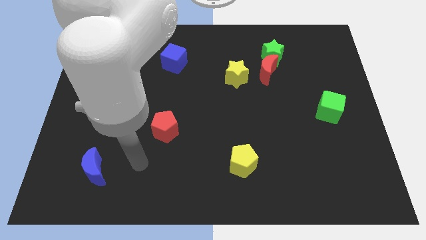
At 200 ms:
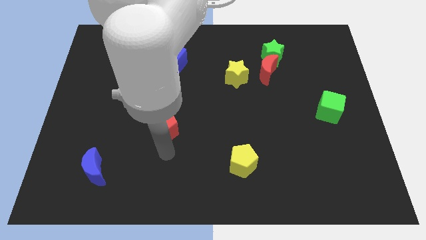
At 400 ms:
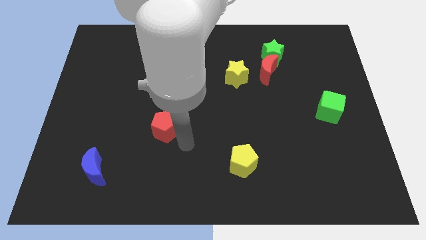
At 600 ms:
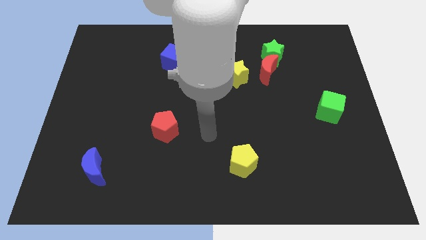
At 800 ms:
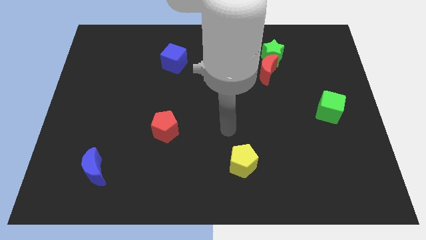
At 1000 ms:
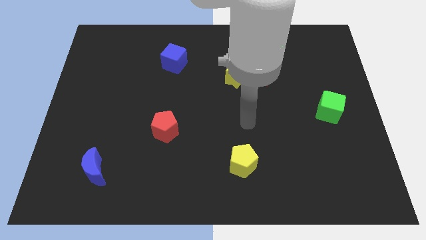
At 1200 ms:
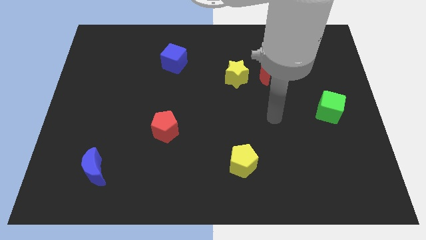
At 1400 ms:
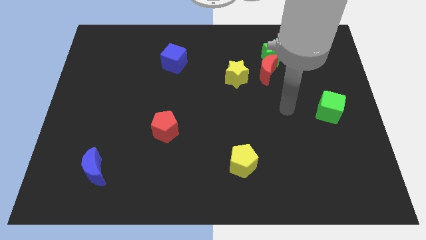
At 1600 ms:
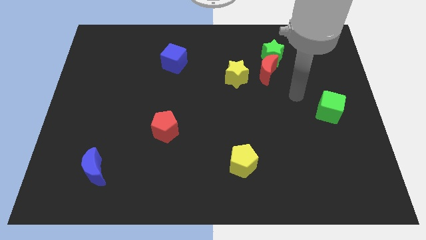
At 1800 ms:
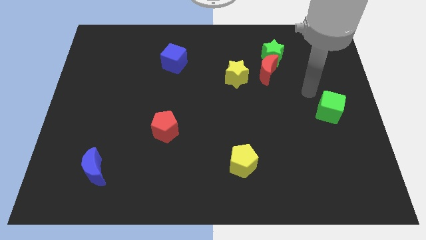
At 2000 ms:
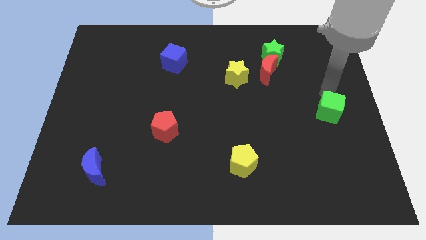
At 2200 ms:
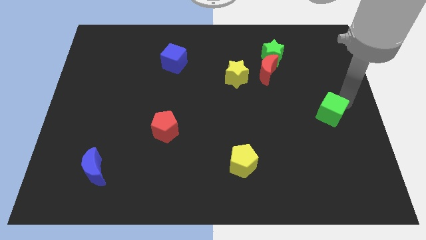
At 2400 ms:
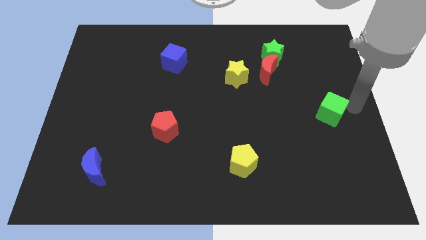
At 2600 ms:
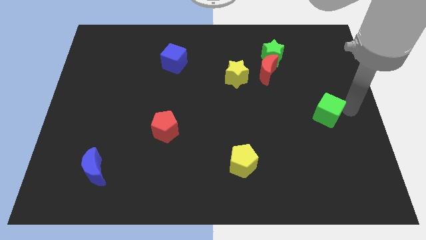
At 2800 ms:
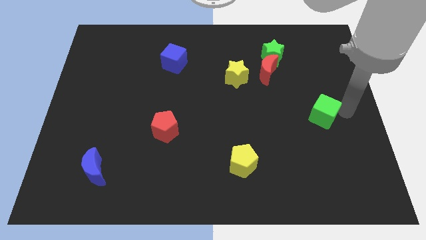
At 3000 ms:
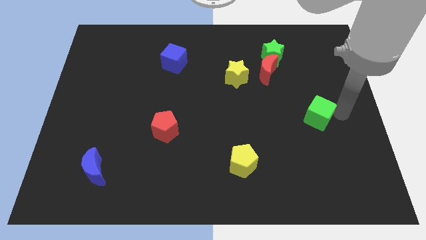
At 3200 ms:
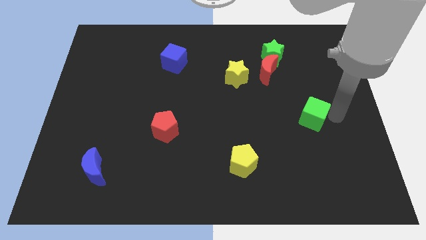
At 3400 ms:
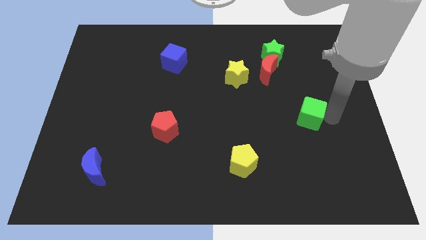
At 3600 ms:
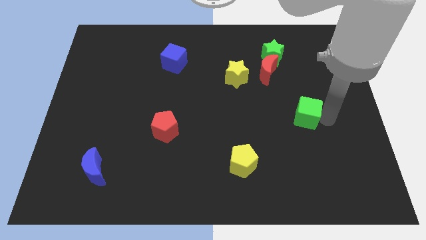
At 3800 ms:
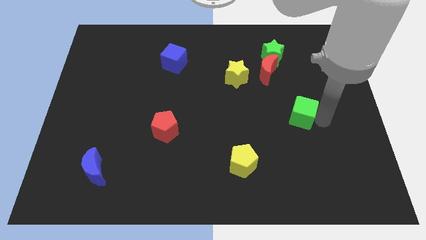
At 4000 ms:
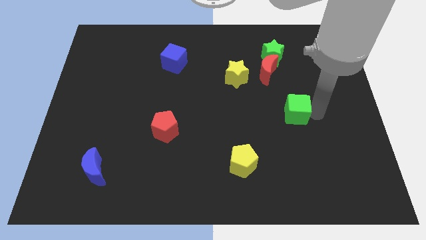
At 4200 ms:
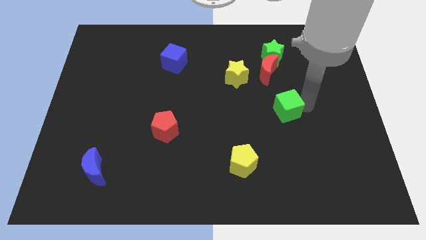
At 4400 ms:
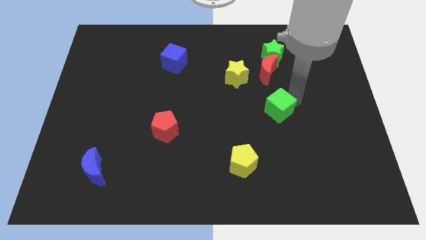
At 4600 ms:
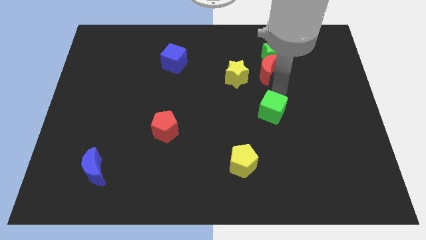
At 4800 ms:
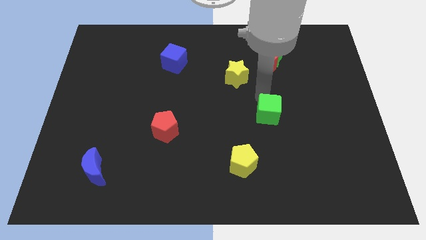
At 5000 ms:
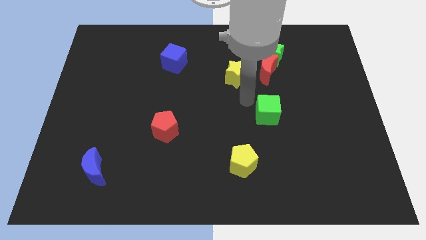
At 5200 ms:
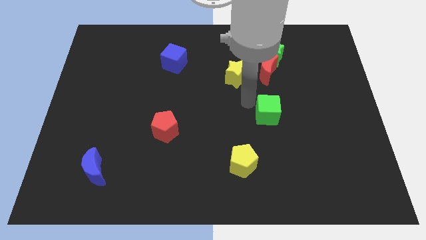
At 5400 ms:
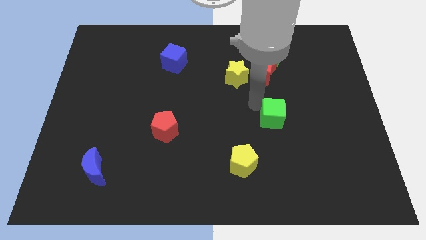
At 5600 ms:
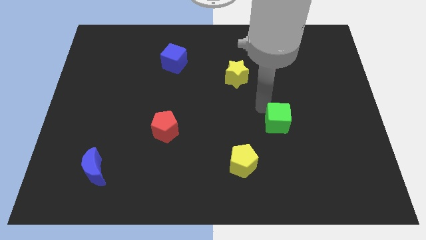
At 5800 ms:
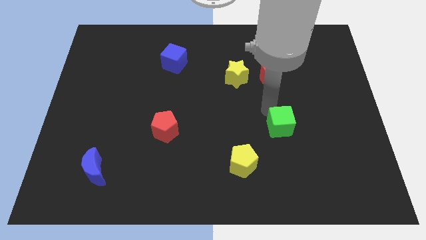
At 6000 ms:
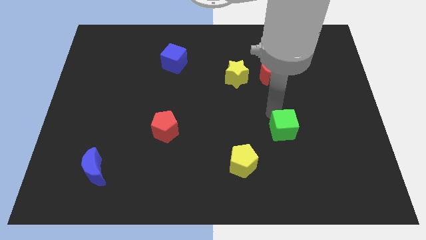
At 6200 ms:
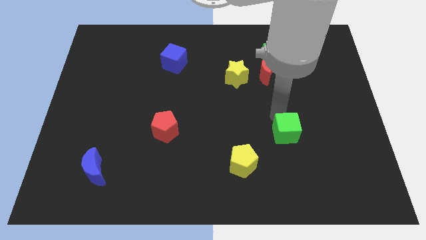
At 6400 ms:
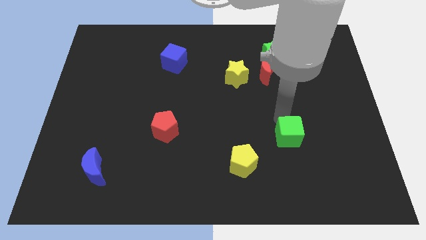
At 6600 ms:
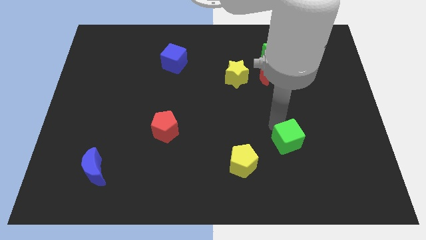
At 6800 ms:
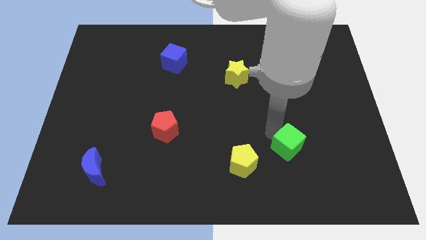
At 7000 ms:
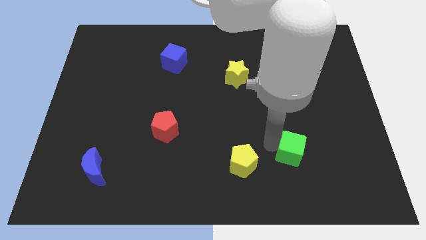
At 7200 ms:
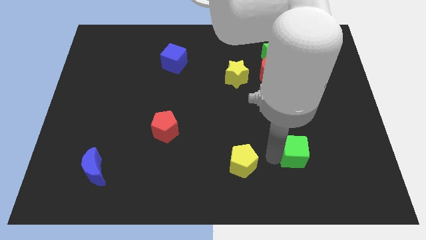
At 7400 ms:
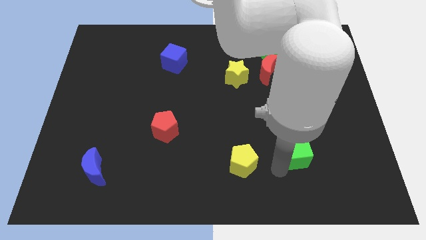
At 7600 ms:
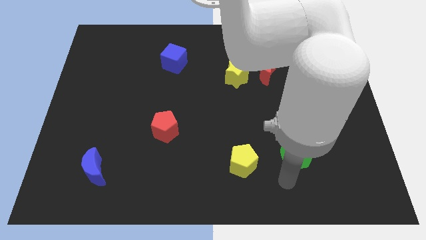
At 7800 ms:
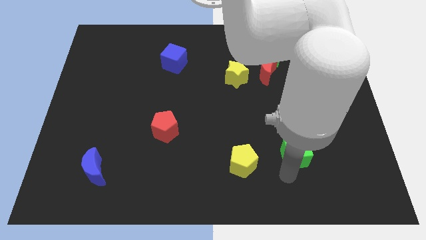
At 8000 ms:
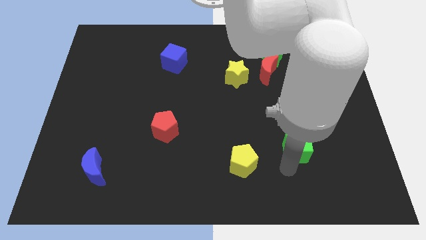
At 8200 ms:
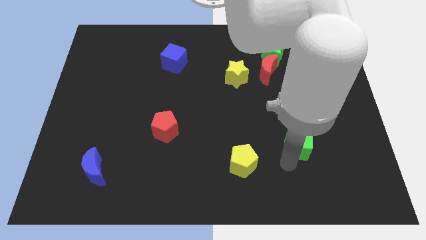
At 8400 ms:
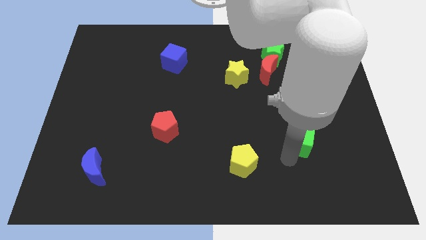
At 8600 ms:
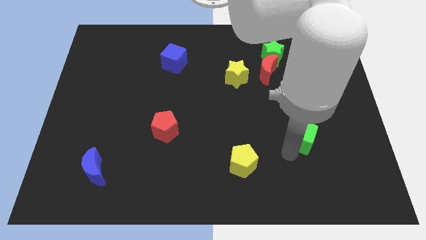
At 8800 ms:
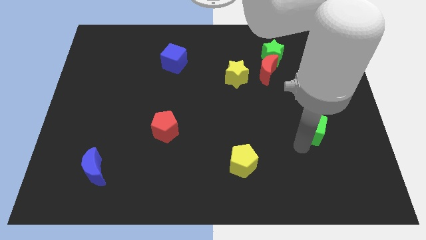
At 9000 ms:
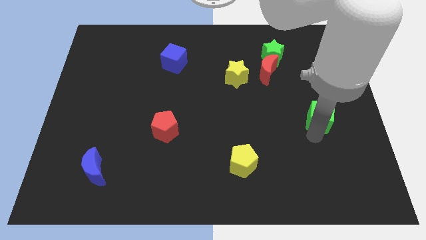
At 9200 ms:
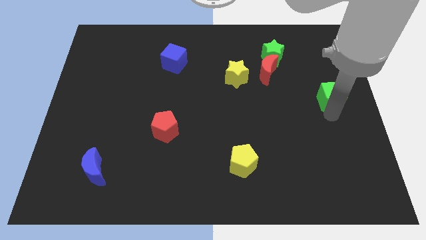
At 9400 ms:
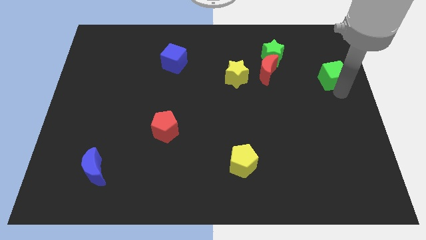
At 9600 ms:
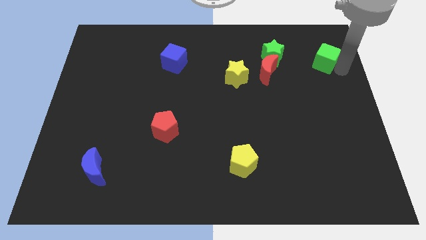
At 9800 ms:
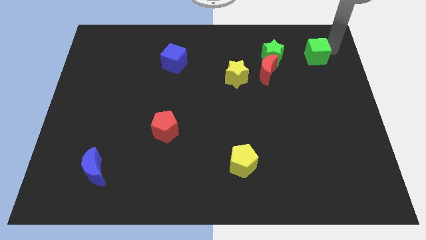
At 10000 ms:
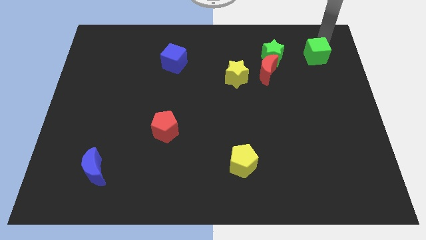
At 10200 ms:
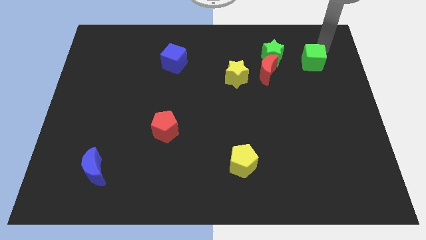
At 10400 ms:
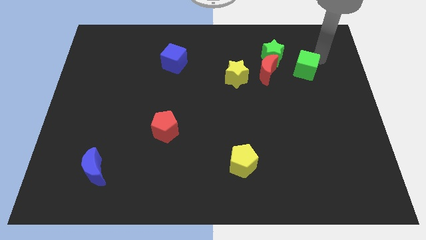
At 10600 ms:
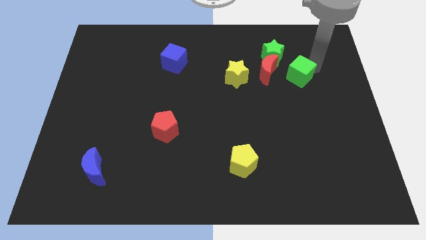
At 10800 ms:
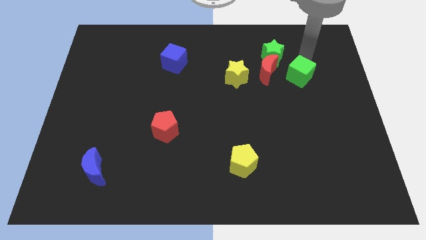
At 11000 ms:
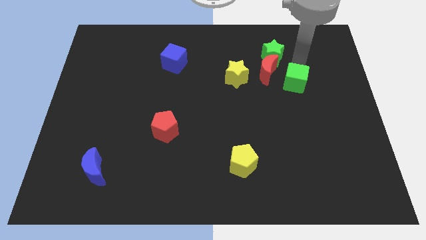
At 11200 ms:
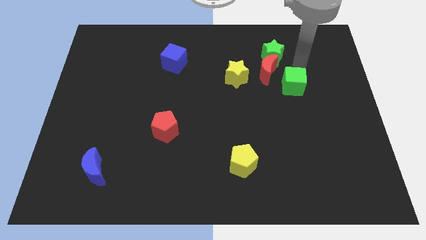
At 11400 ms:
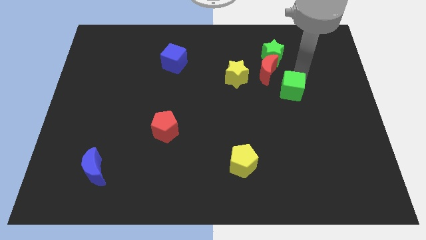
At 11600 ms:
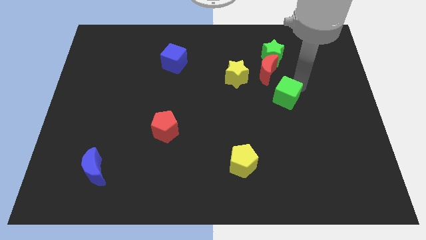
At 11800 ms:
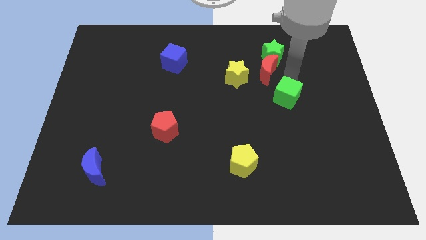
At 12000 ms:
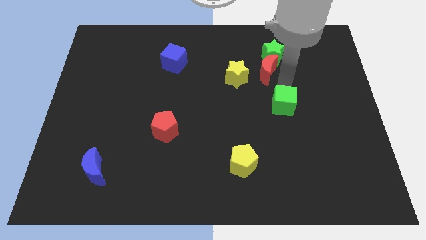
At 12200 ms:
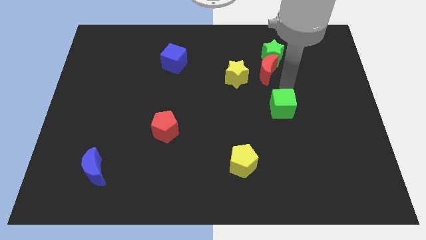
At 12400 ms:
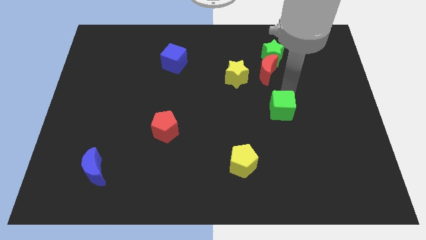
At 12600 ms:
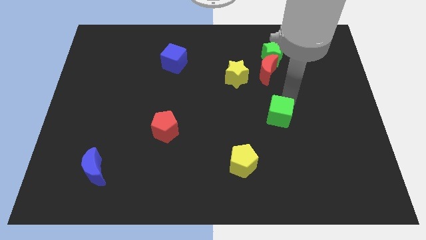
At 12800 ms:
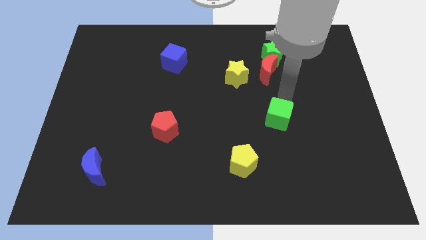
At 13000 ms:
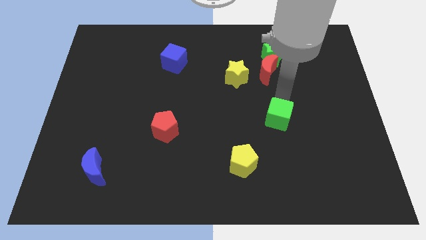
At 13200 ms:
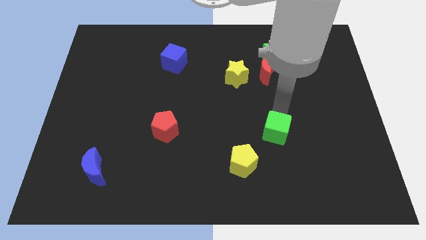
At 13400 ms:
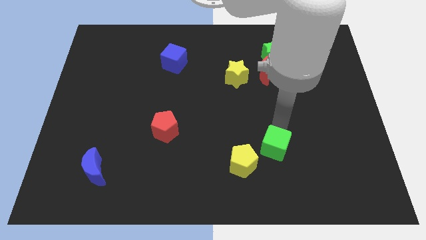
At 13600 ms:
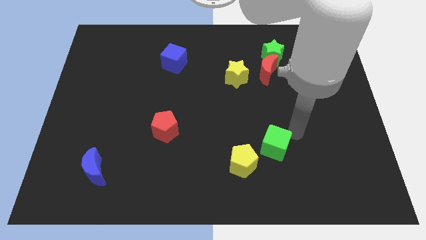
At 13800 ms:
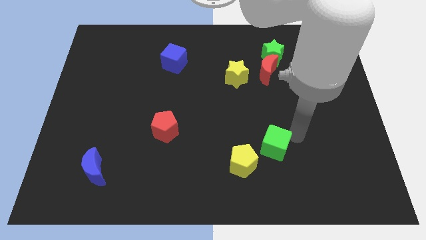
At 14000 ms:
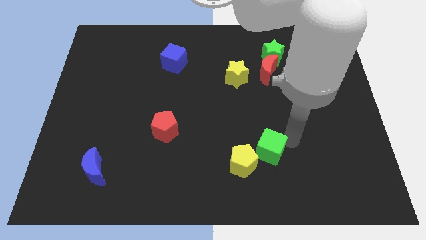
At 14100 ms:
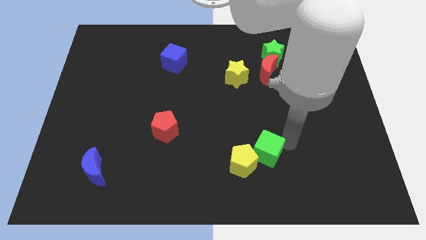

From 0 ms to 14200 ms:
push the green cube close to the yellow pentagon
